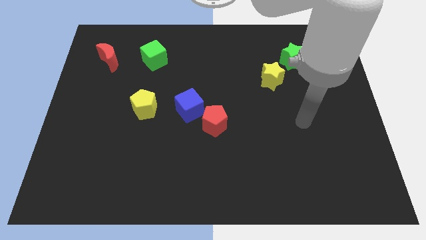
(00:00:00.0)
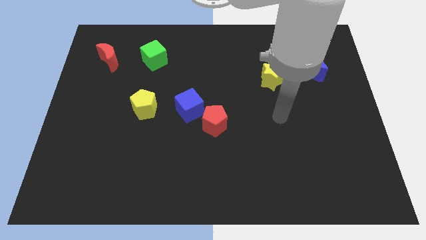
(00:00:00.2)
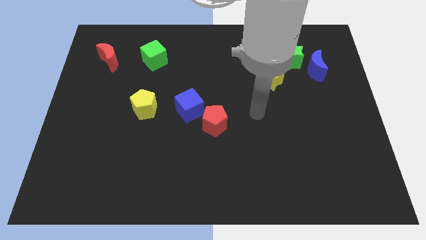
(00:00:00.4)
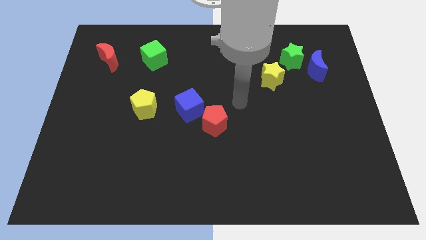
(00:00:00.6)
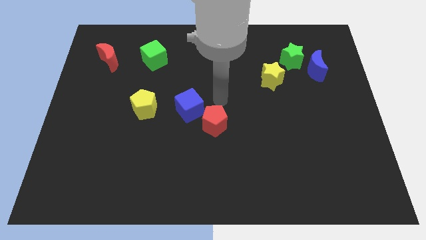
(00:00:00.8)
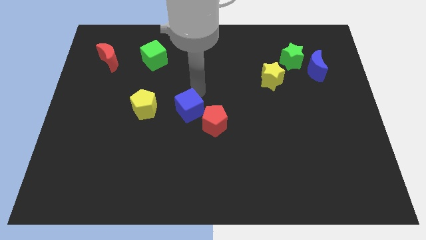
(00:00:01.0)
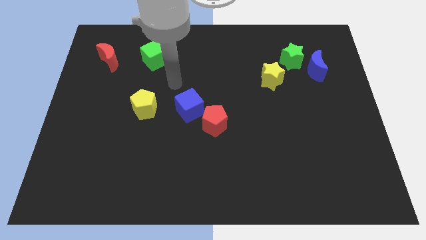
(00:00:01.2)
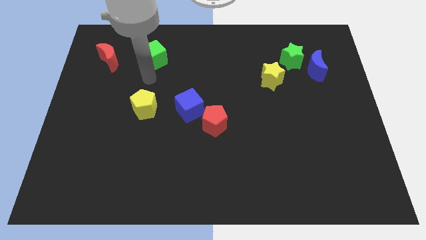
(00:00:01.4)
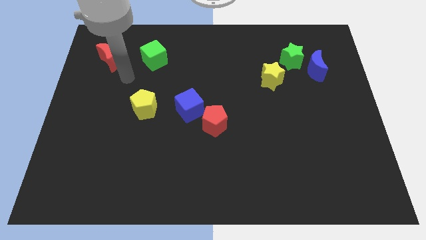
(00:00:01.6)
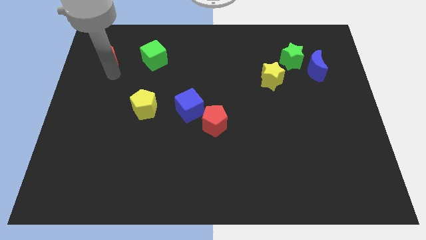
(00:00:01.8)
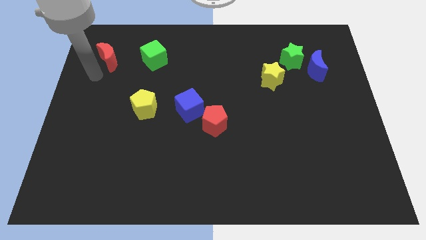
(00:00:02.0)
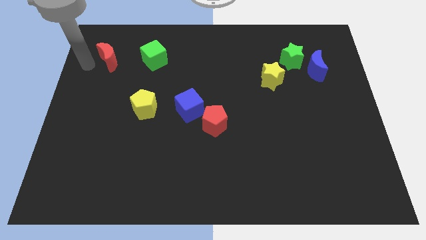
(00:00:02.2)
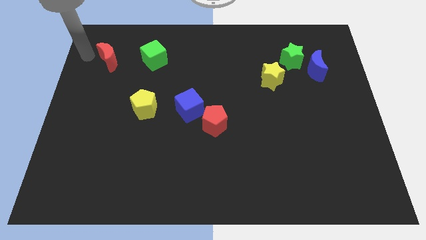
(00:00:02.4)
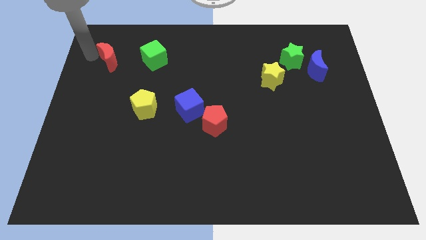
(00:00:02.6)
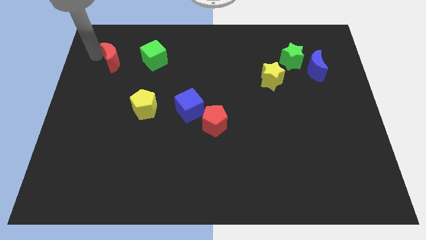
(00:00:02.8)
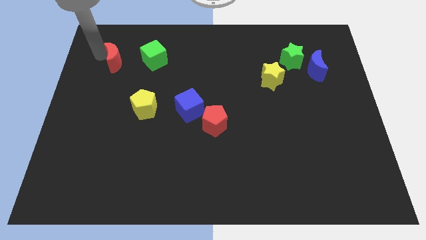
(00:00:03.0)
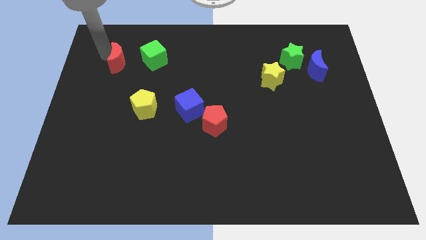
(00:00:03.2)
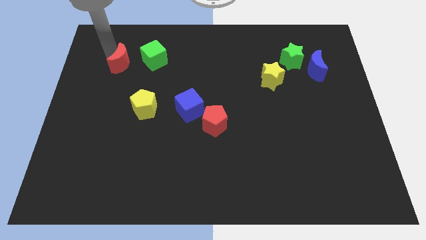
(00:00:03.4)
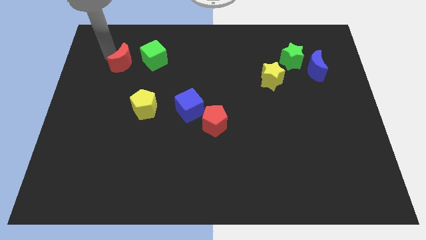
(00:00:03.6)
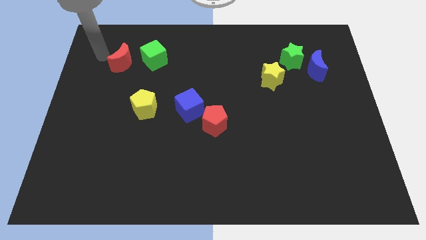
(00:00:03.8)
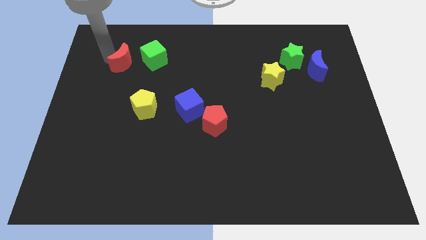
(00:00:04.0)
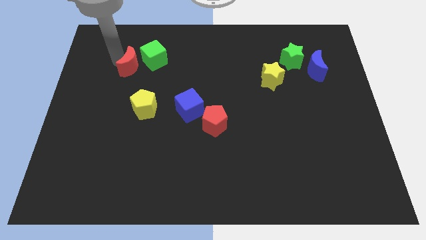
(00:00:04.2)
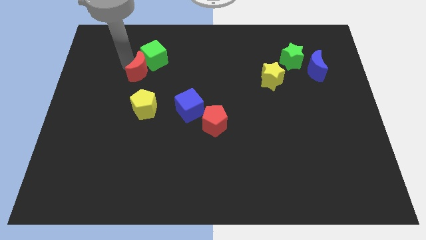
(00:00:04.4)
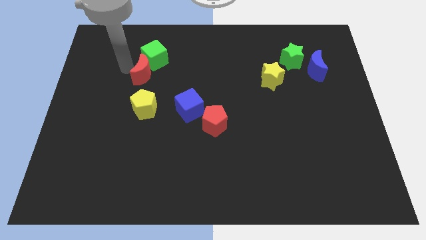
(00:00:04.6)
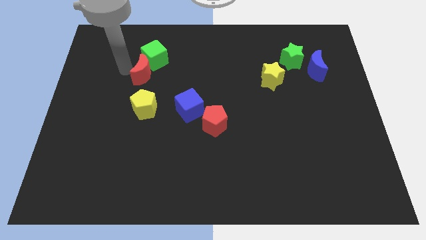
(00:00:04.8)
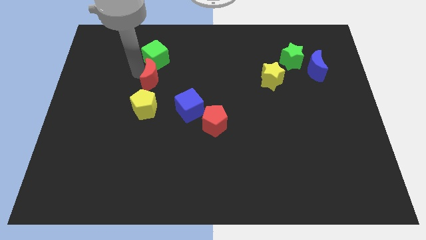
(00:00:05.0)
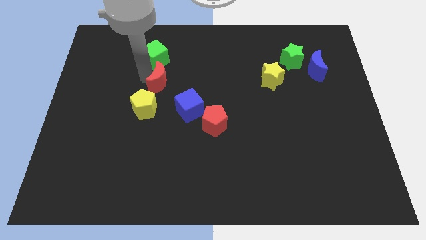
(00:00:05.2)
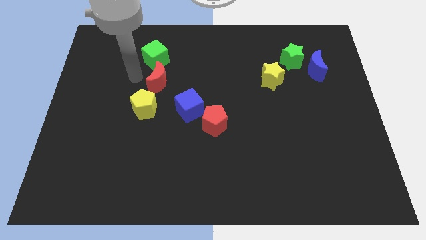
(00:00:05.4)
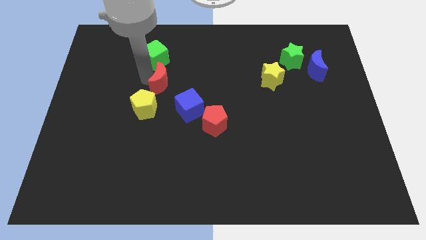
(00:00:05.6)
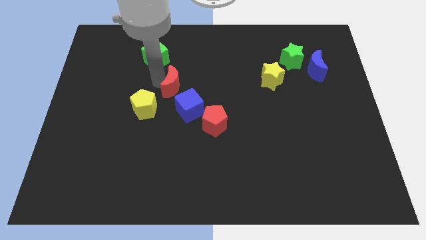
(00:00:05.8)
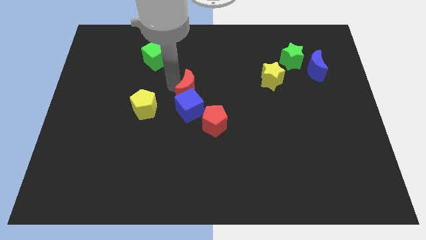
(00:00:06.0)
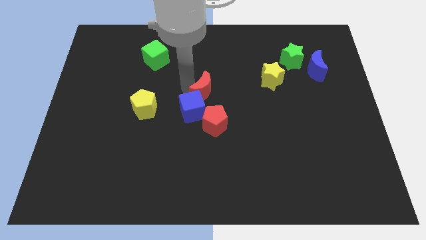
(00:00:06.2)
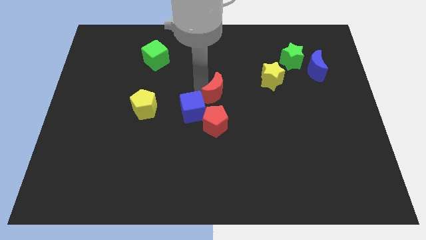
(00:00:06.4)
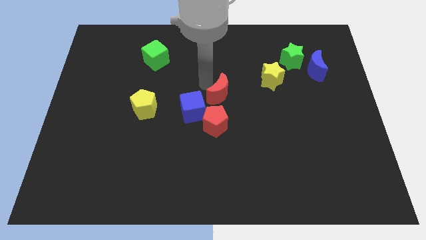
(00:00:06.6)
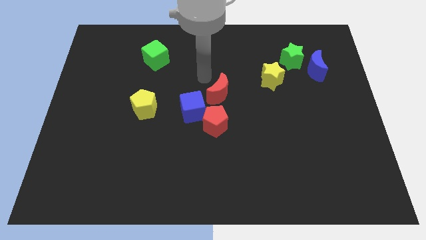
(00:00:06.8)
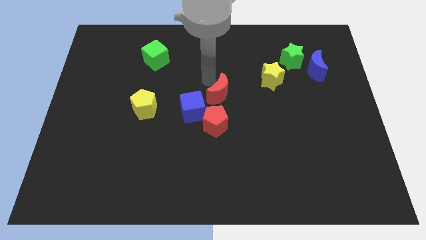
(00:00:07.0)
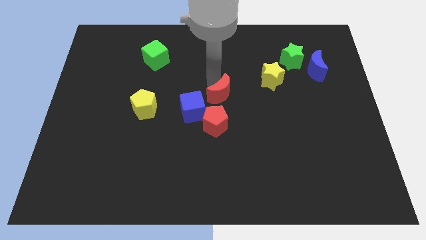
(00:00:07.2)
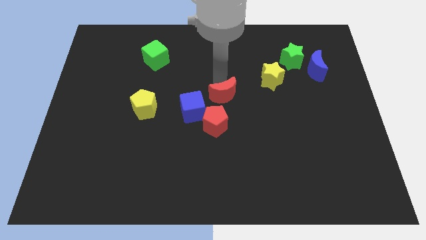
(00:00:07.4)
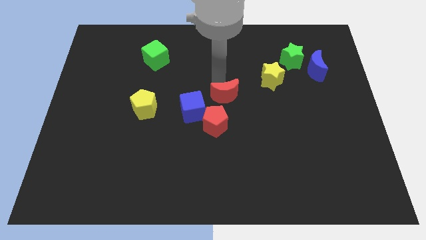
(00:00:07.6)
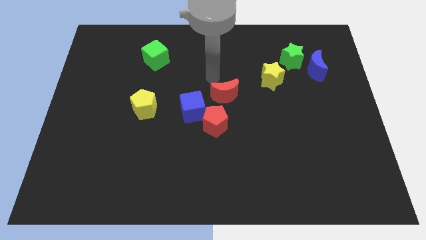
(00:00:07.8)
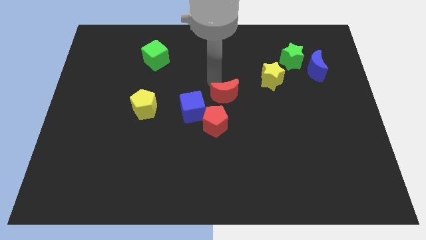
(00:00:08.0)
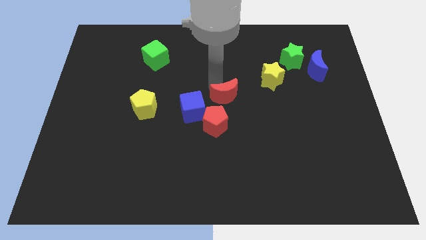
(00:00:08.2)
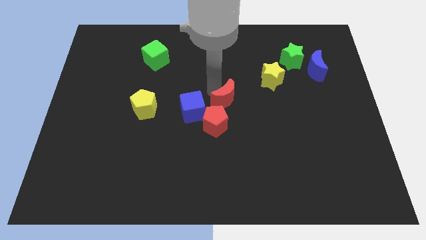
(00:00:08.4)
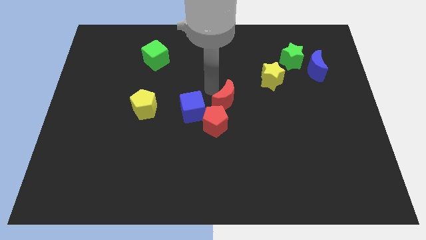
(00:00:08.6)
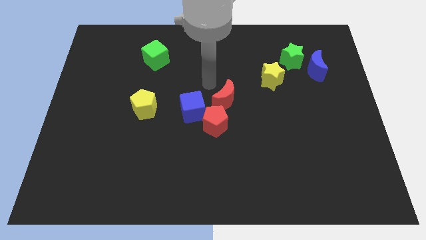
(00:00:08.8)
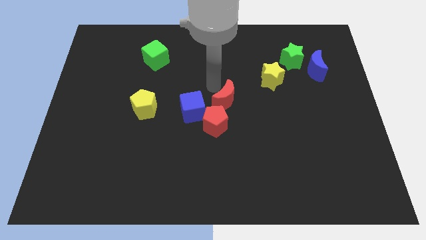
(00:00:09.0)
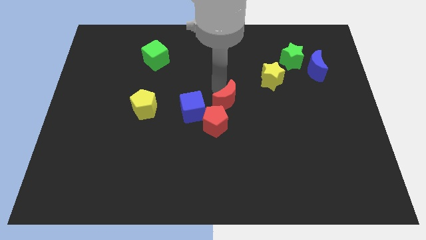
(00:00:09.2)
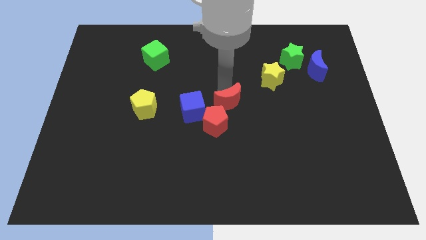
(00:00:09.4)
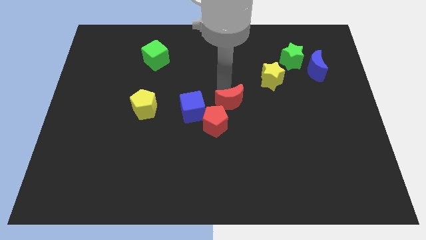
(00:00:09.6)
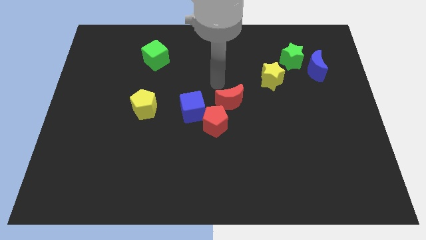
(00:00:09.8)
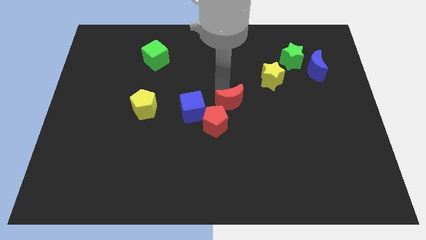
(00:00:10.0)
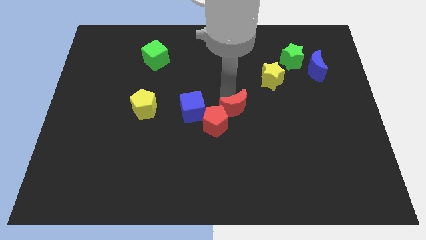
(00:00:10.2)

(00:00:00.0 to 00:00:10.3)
move the red moon to the right side of the red pentagon

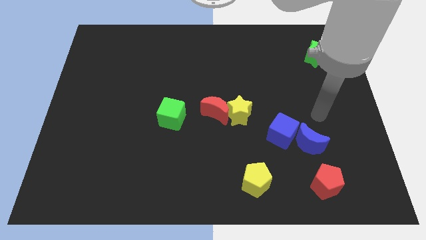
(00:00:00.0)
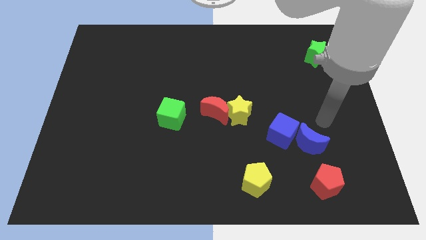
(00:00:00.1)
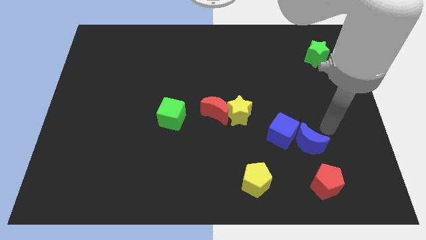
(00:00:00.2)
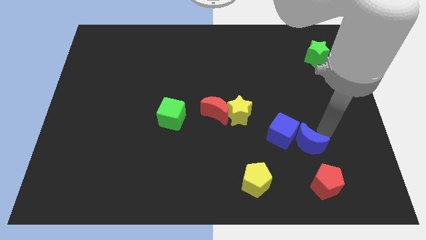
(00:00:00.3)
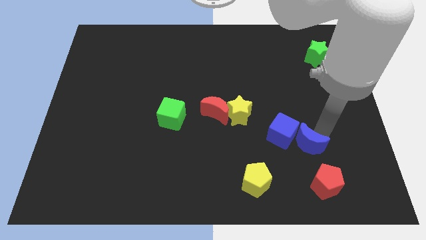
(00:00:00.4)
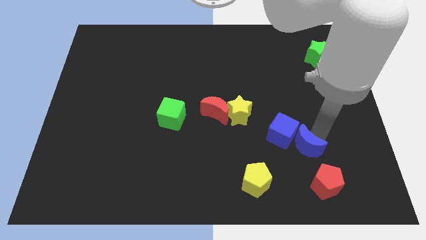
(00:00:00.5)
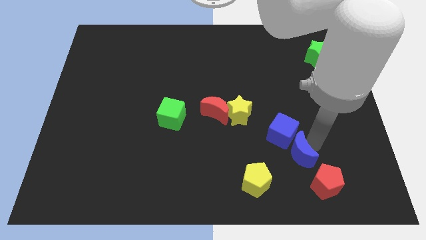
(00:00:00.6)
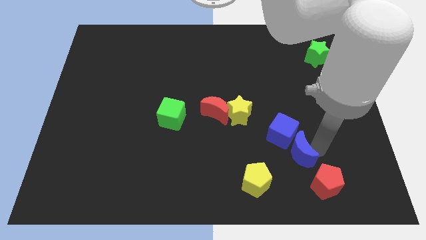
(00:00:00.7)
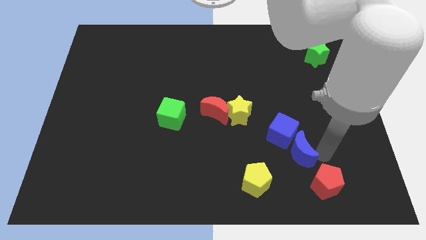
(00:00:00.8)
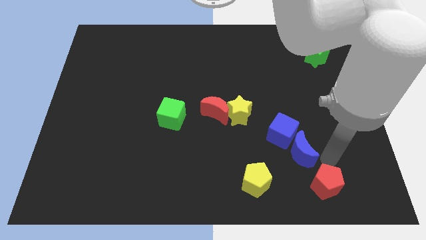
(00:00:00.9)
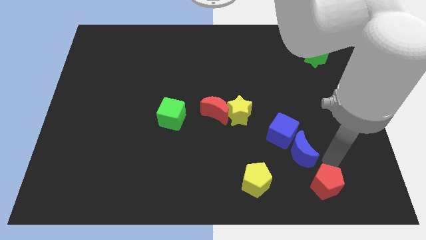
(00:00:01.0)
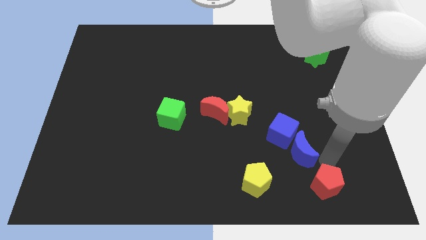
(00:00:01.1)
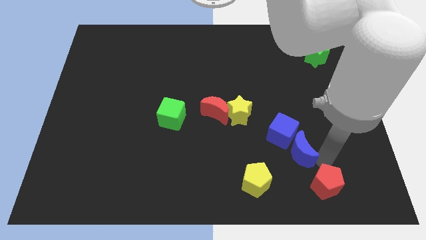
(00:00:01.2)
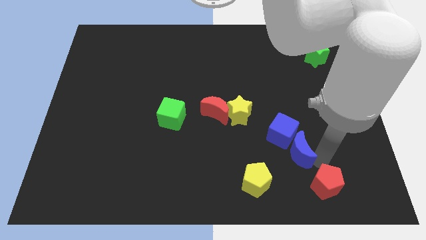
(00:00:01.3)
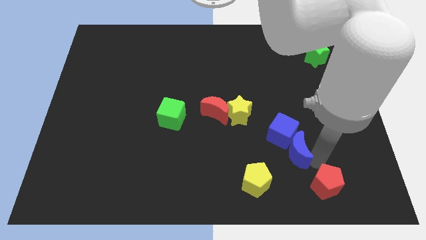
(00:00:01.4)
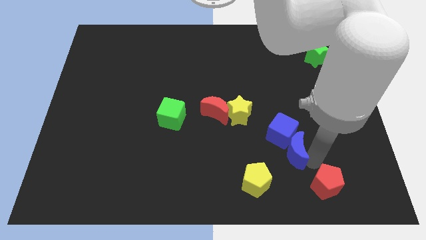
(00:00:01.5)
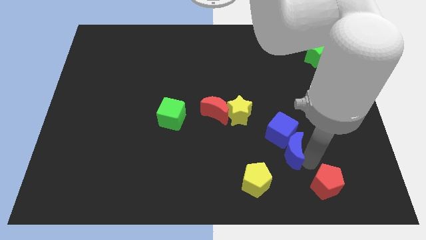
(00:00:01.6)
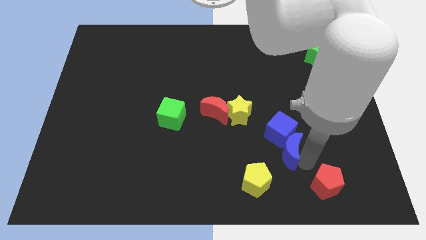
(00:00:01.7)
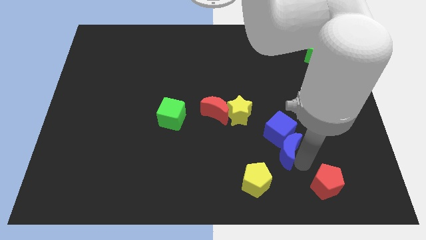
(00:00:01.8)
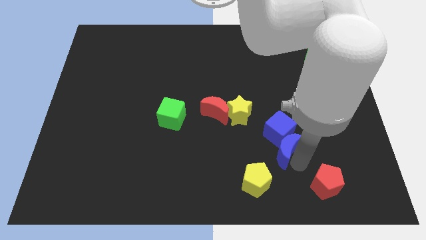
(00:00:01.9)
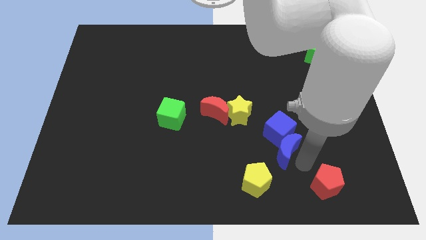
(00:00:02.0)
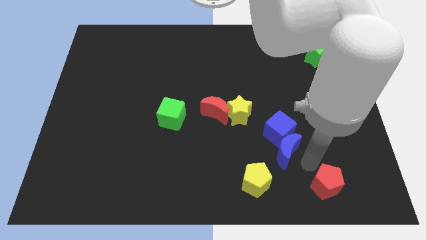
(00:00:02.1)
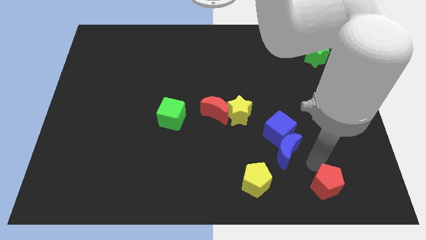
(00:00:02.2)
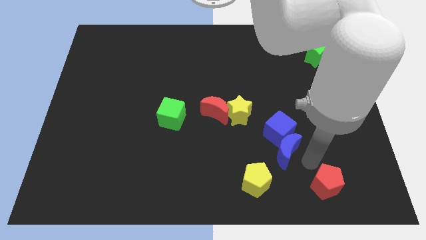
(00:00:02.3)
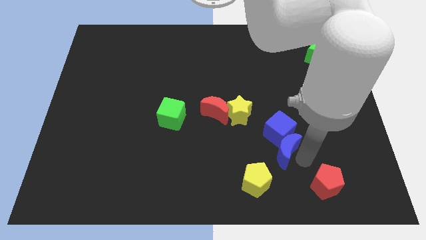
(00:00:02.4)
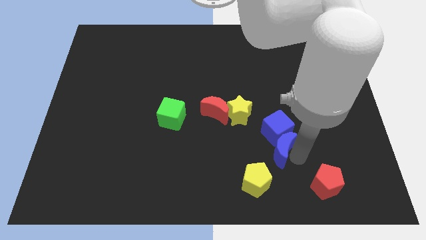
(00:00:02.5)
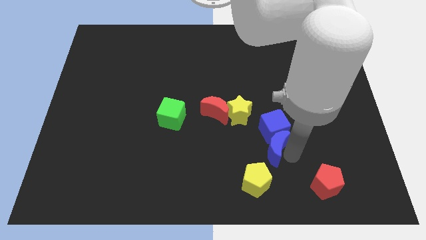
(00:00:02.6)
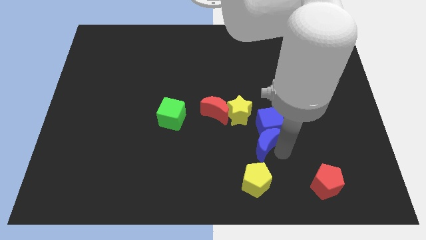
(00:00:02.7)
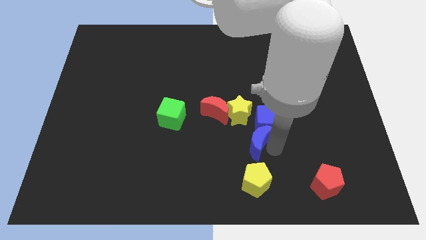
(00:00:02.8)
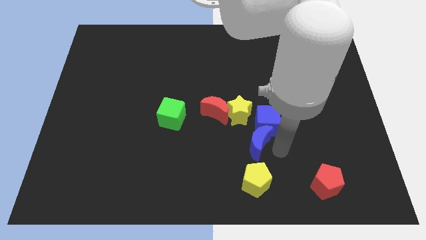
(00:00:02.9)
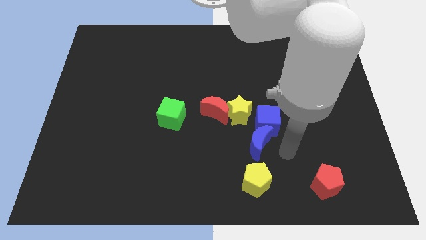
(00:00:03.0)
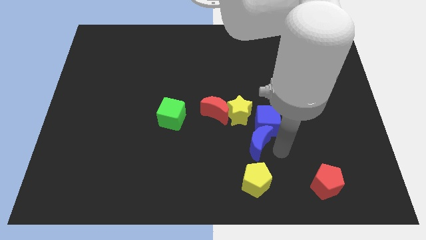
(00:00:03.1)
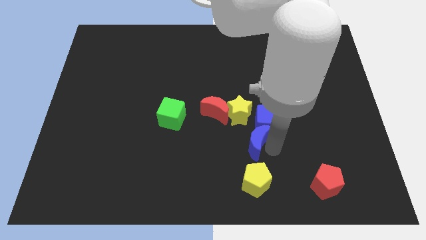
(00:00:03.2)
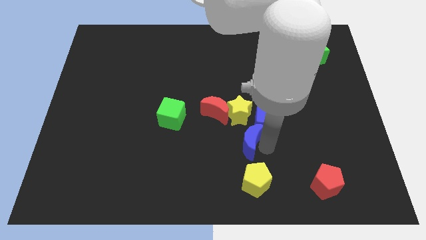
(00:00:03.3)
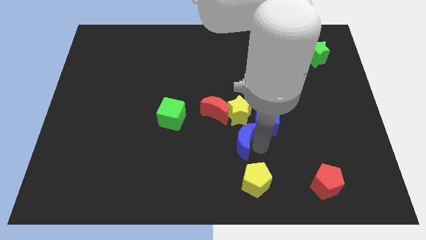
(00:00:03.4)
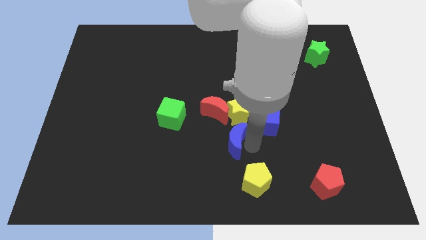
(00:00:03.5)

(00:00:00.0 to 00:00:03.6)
put the blue moon to the bottom left of the yellow star
